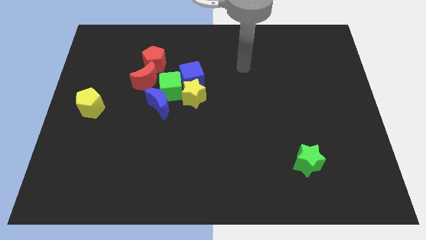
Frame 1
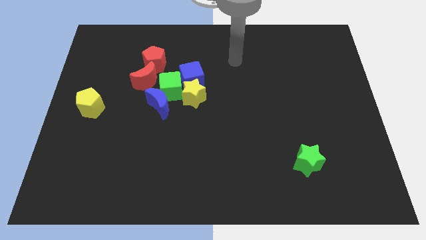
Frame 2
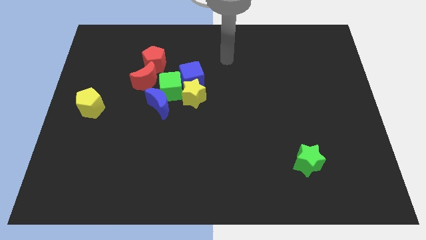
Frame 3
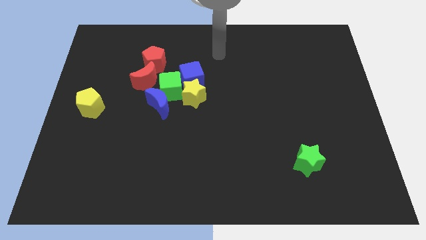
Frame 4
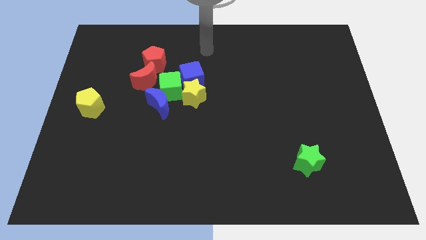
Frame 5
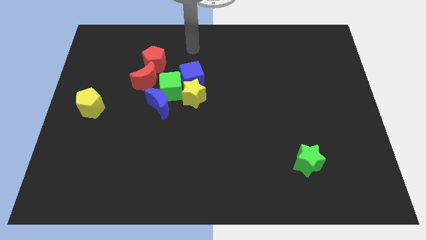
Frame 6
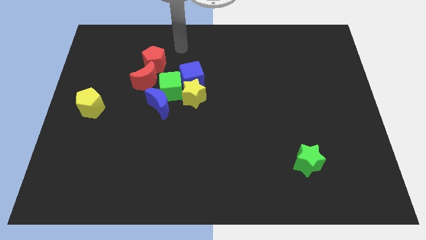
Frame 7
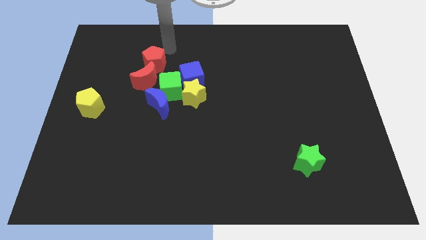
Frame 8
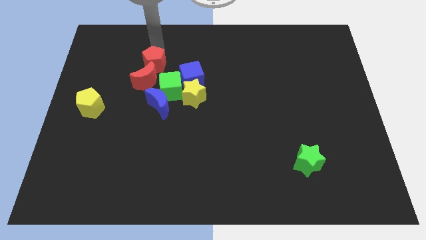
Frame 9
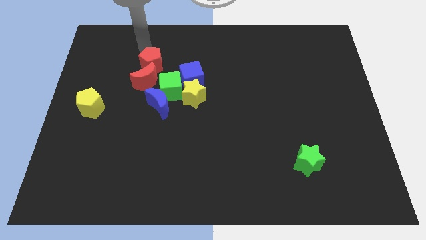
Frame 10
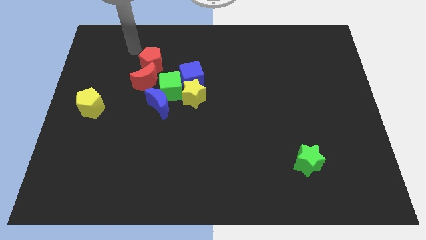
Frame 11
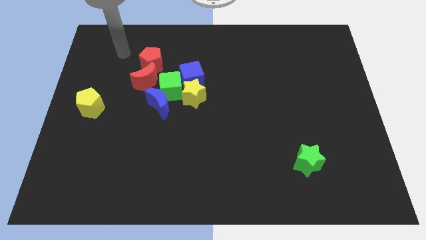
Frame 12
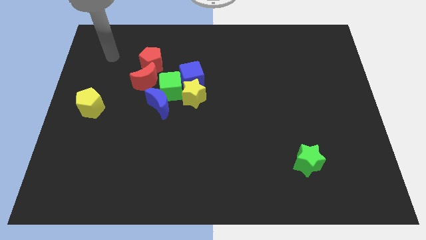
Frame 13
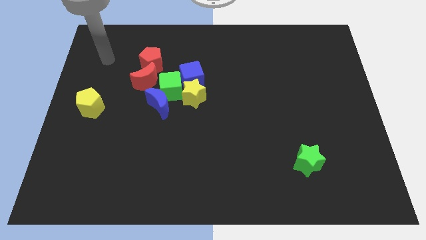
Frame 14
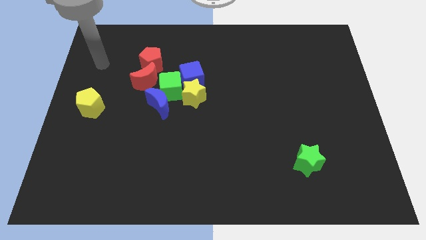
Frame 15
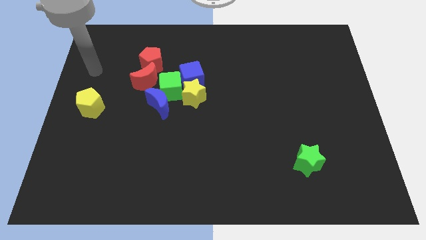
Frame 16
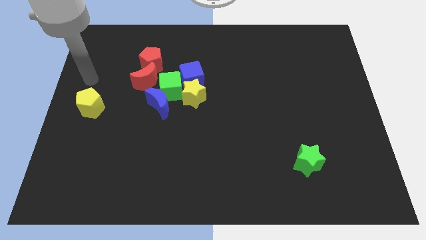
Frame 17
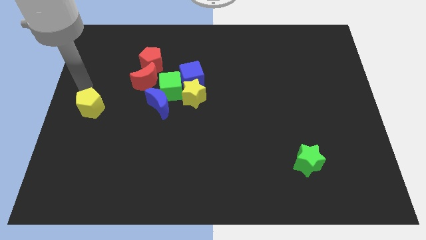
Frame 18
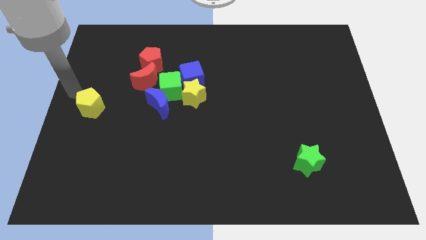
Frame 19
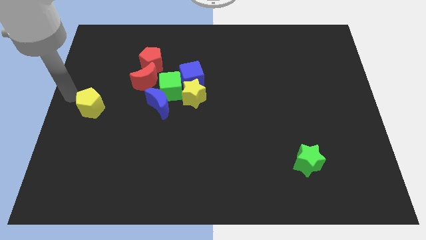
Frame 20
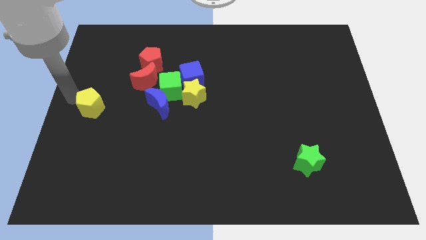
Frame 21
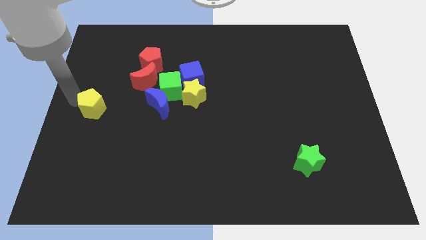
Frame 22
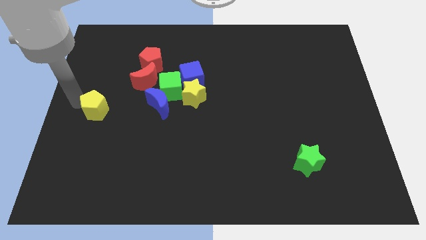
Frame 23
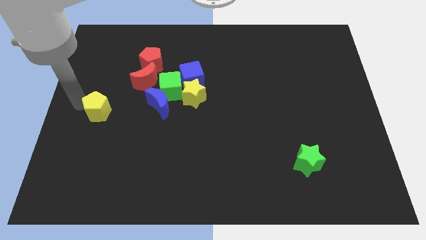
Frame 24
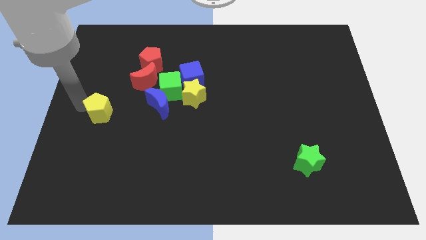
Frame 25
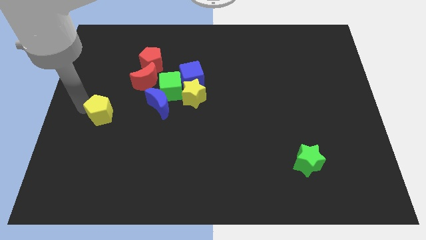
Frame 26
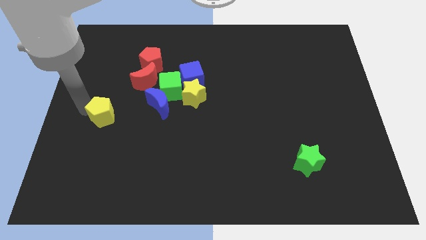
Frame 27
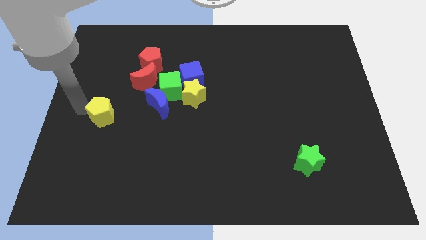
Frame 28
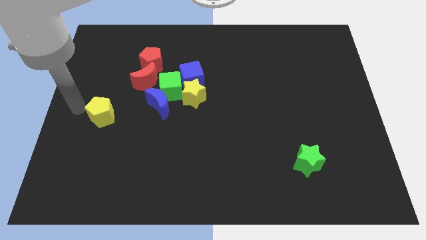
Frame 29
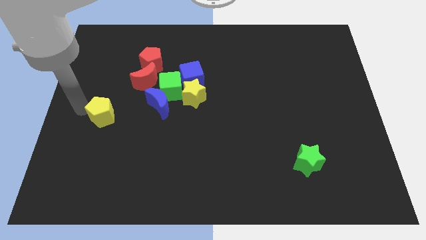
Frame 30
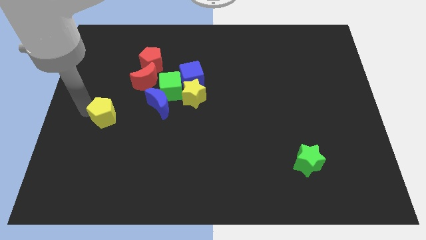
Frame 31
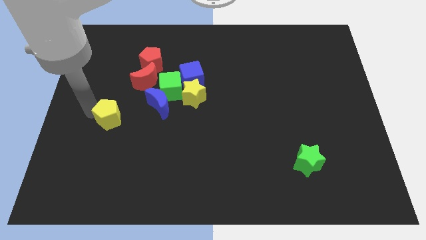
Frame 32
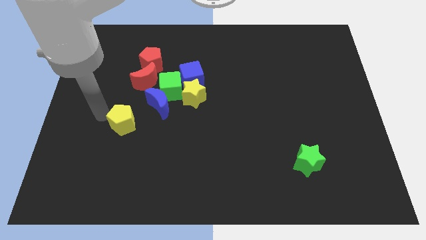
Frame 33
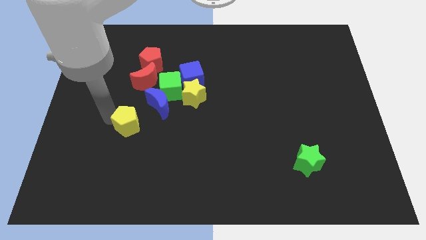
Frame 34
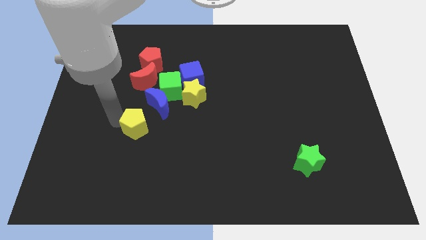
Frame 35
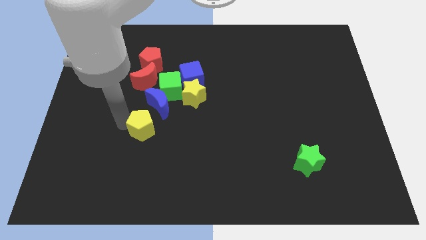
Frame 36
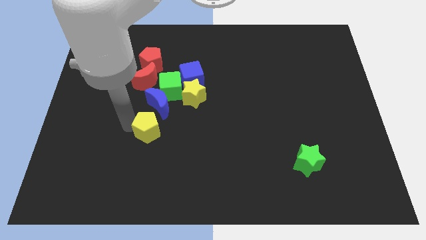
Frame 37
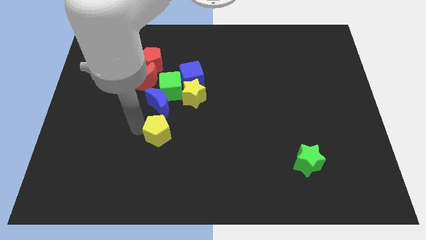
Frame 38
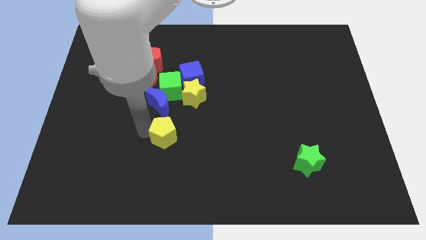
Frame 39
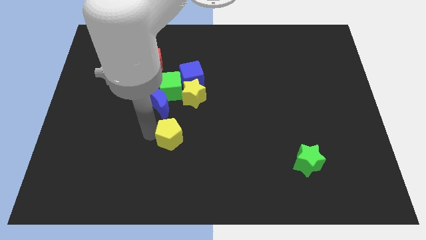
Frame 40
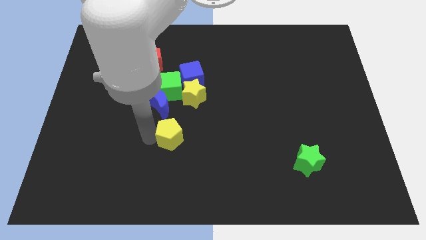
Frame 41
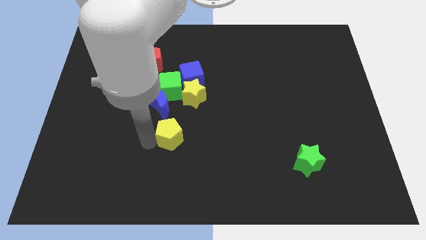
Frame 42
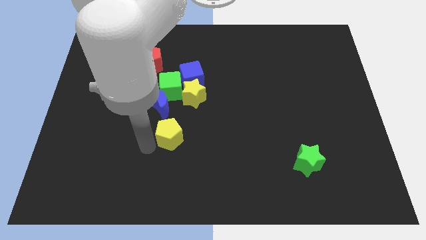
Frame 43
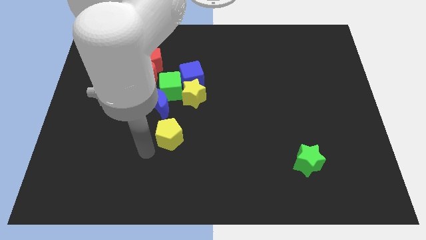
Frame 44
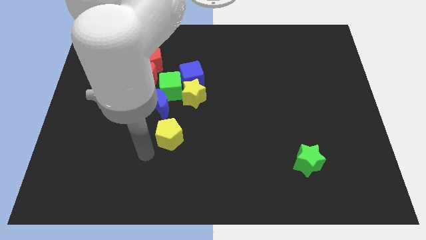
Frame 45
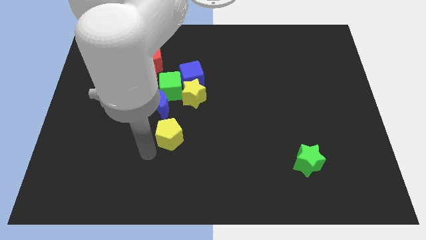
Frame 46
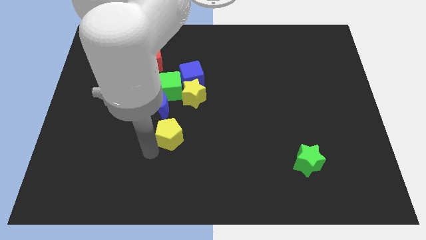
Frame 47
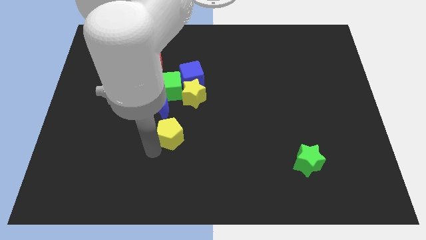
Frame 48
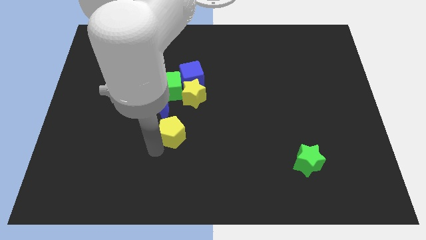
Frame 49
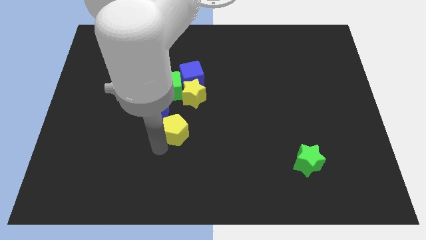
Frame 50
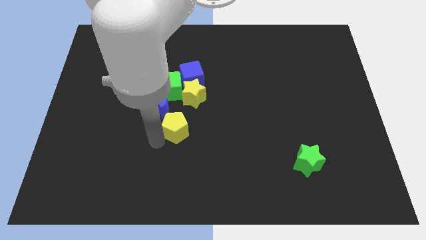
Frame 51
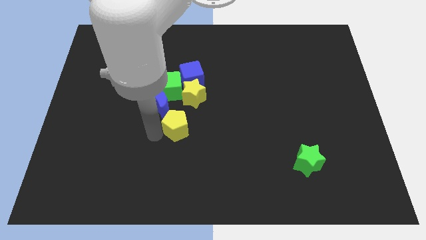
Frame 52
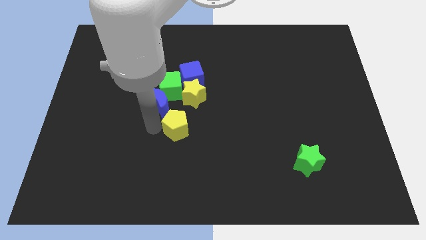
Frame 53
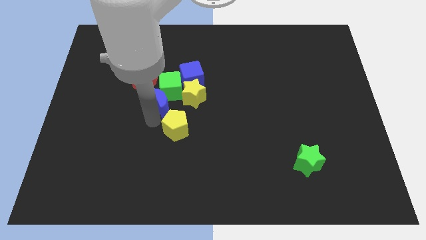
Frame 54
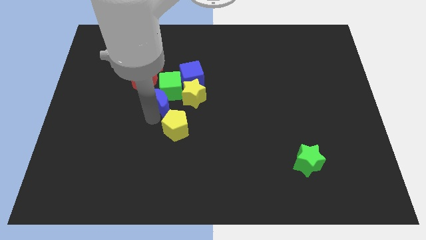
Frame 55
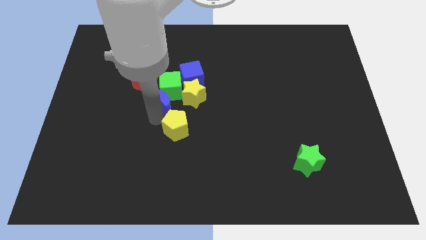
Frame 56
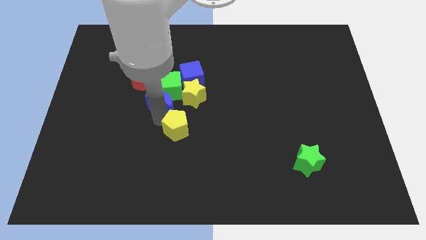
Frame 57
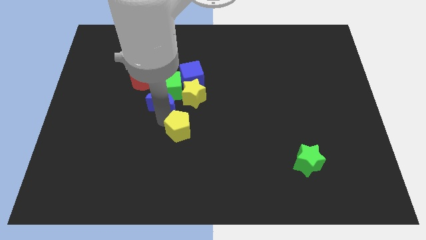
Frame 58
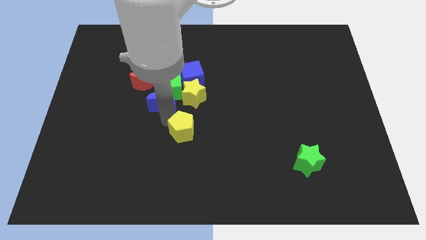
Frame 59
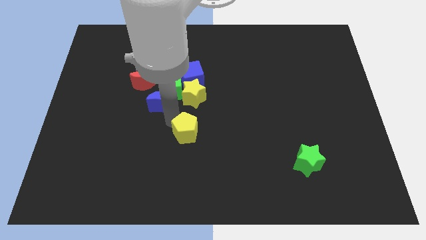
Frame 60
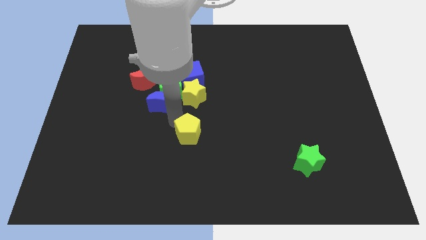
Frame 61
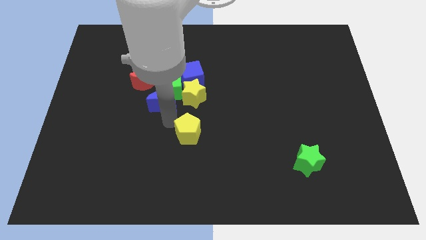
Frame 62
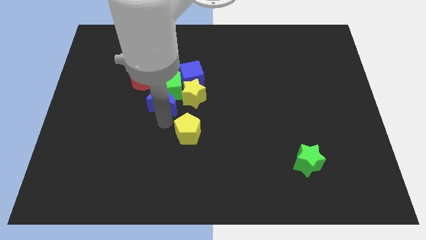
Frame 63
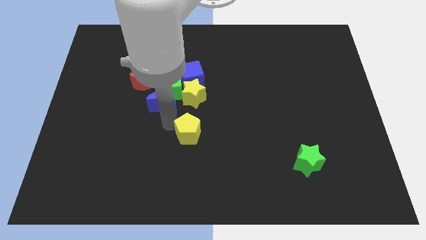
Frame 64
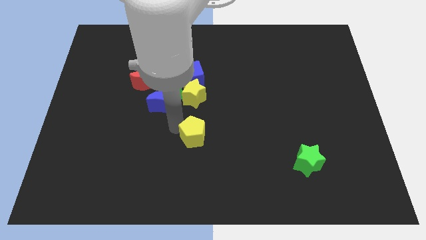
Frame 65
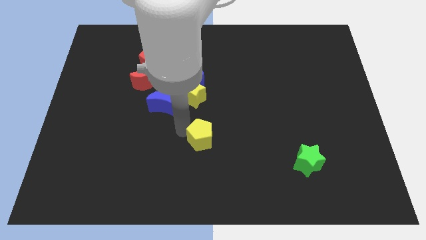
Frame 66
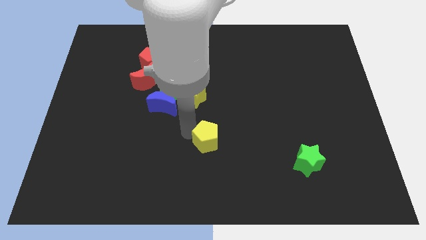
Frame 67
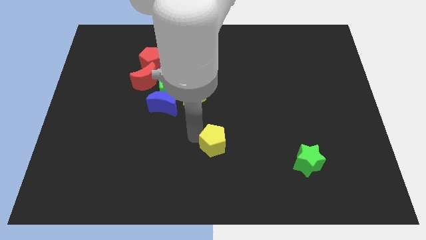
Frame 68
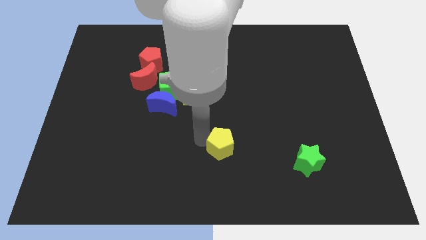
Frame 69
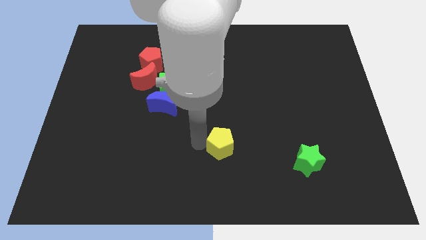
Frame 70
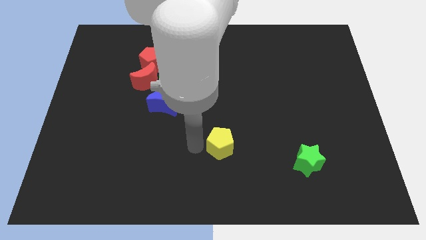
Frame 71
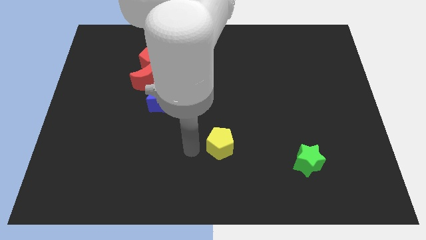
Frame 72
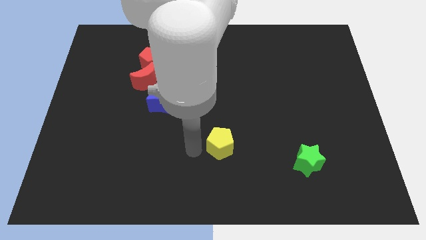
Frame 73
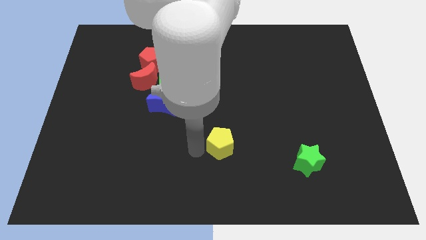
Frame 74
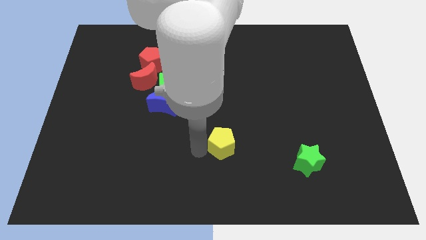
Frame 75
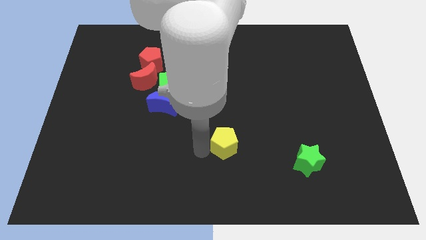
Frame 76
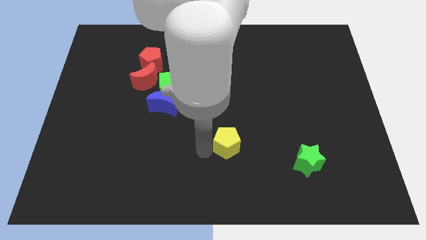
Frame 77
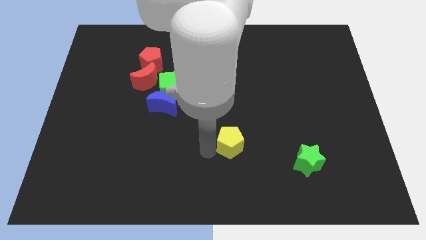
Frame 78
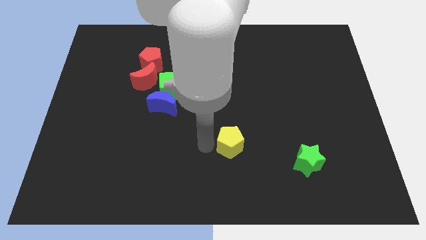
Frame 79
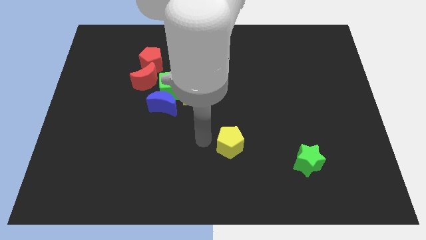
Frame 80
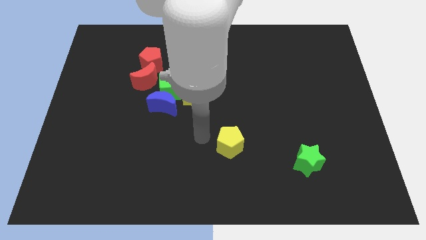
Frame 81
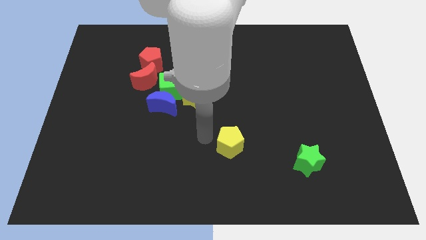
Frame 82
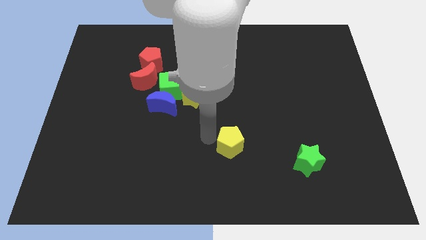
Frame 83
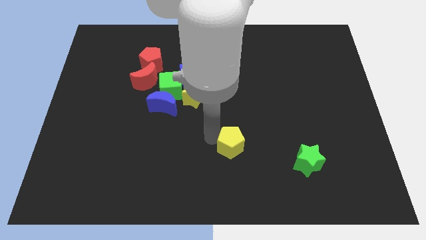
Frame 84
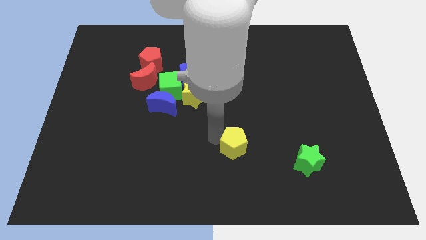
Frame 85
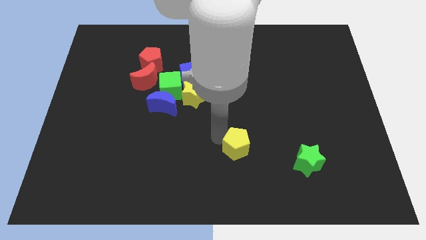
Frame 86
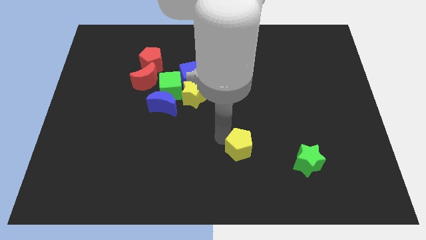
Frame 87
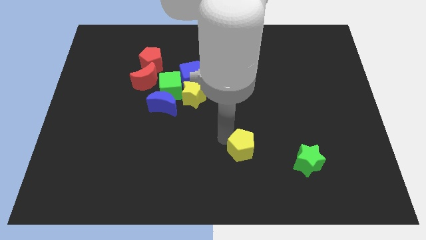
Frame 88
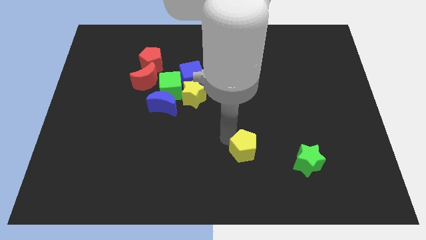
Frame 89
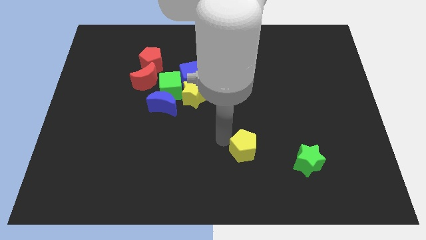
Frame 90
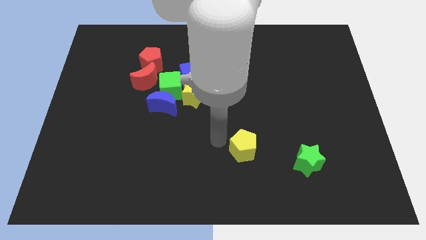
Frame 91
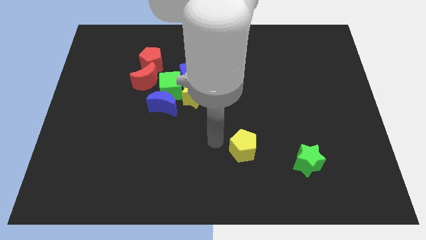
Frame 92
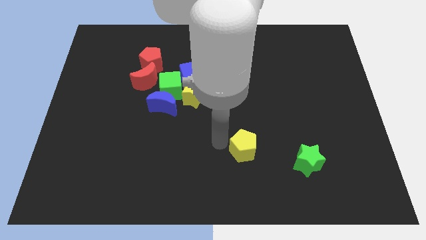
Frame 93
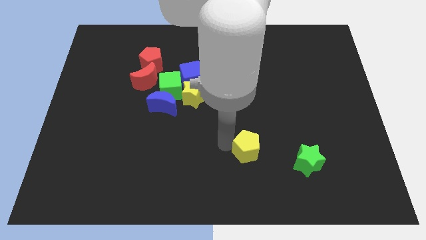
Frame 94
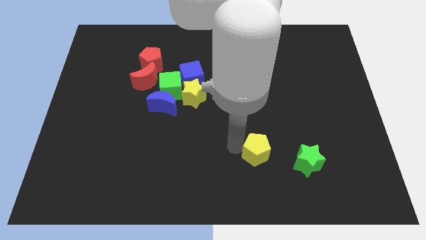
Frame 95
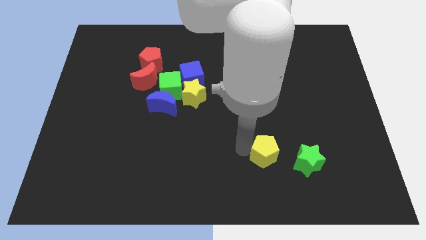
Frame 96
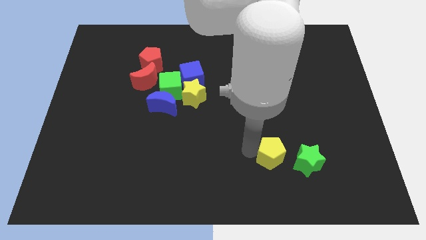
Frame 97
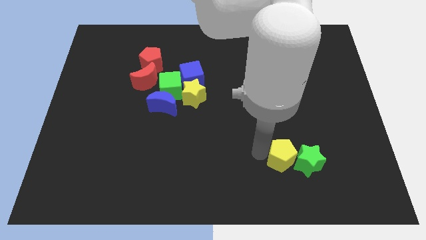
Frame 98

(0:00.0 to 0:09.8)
slide the yellow pentagon next to the green star
